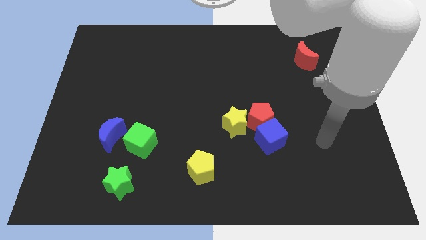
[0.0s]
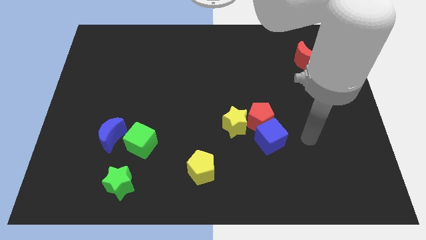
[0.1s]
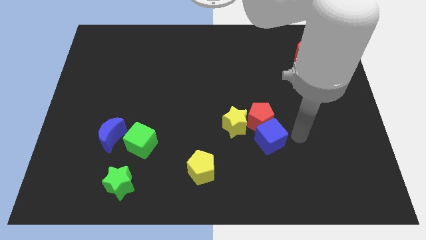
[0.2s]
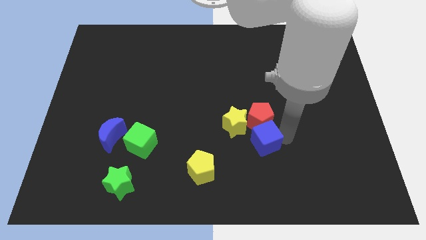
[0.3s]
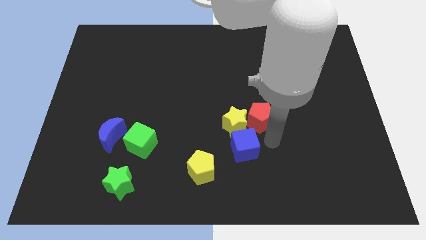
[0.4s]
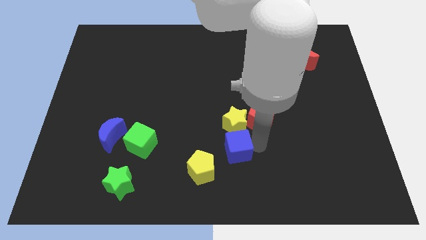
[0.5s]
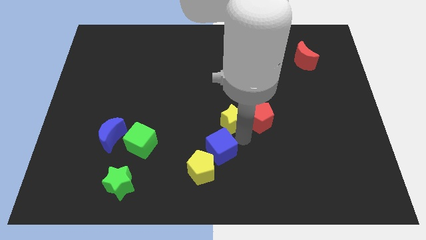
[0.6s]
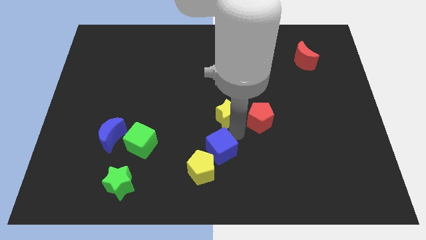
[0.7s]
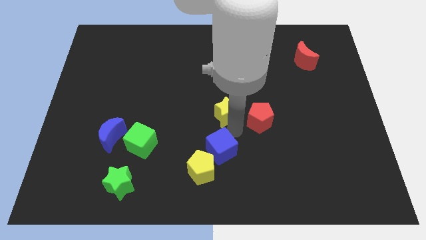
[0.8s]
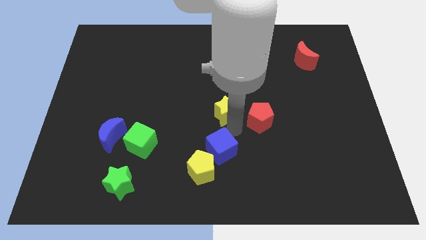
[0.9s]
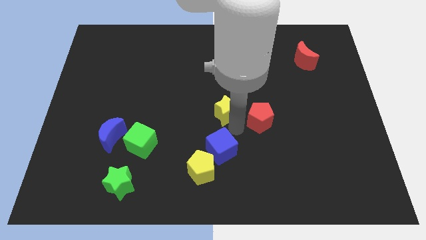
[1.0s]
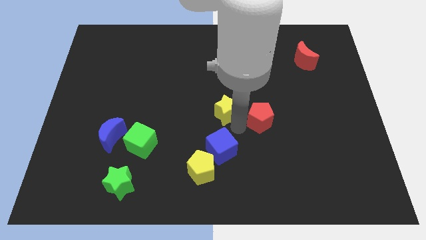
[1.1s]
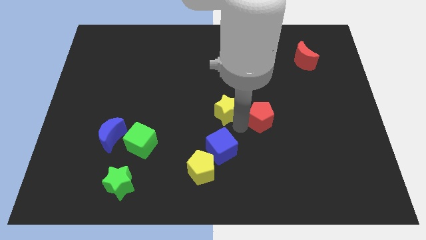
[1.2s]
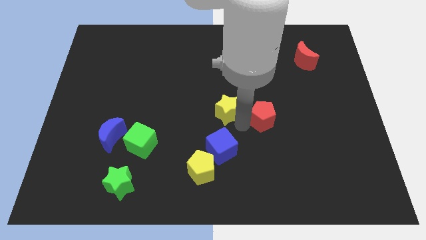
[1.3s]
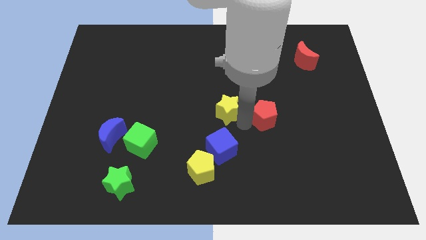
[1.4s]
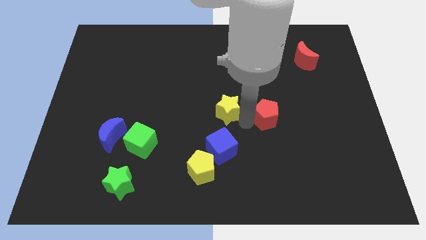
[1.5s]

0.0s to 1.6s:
pull the red pentagon apart from the blue cube and yellow star

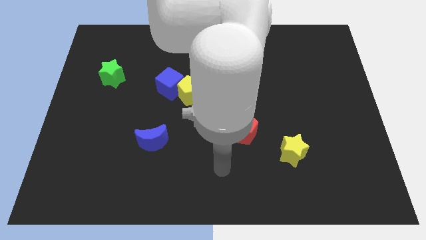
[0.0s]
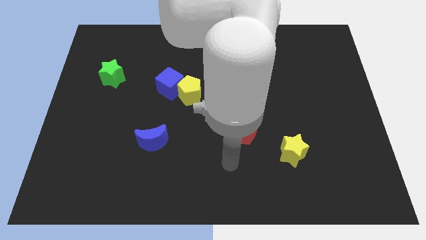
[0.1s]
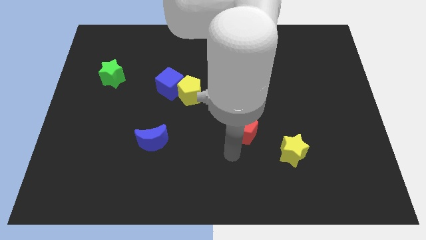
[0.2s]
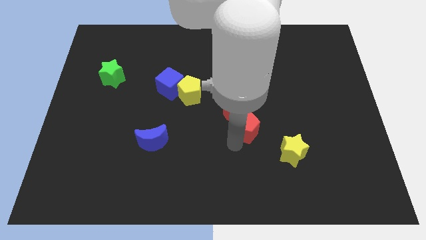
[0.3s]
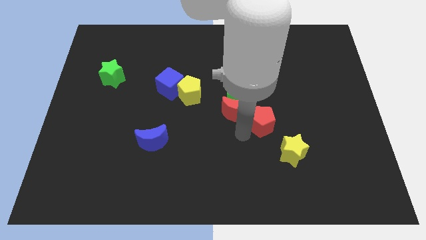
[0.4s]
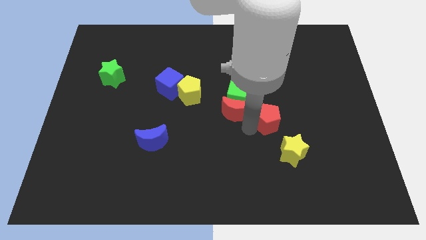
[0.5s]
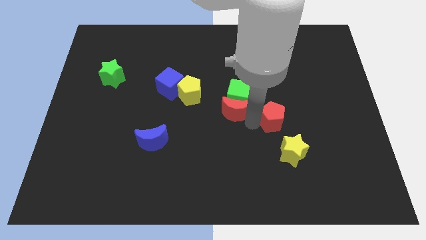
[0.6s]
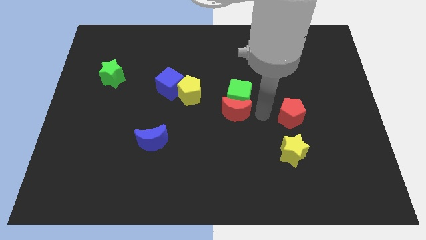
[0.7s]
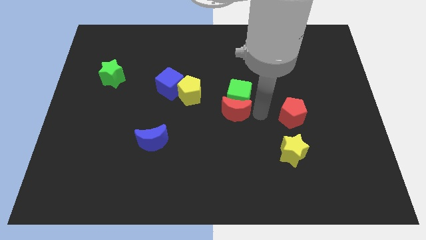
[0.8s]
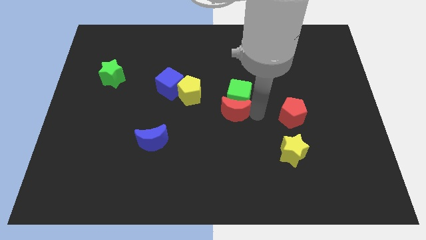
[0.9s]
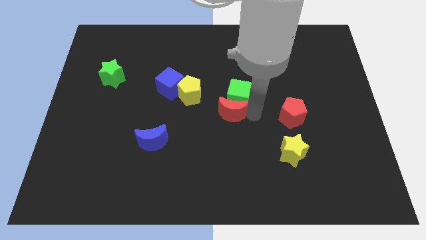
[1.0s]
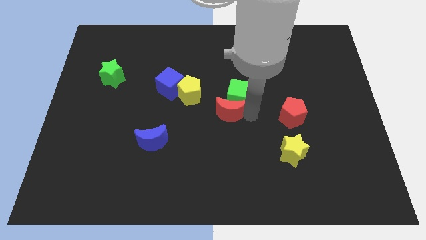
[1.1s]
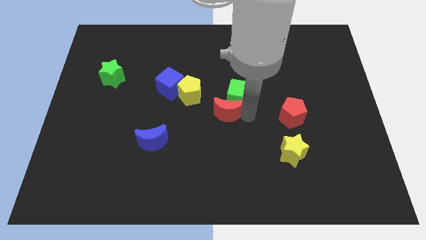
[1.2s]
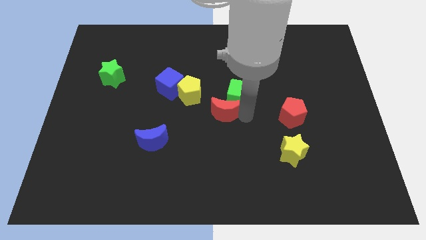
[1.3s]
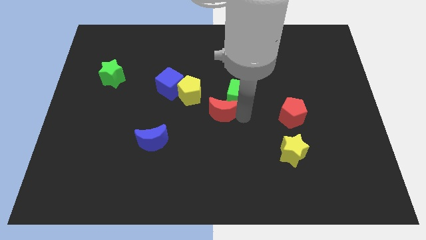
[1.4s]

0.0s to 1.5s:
move the red moon away from the green cube and red pentagon

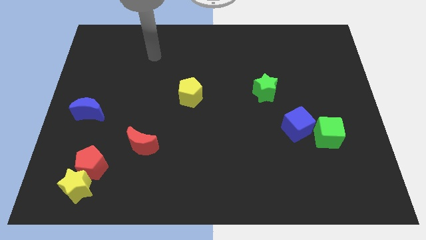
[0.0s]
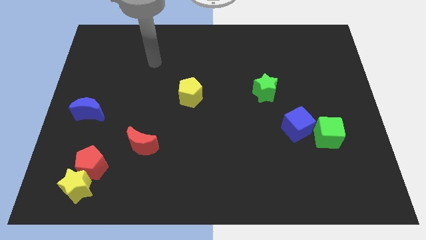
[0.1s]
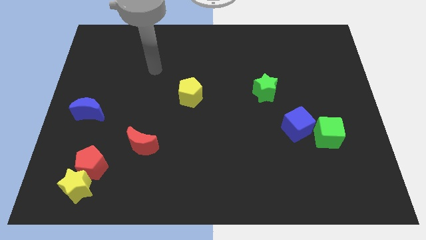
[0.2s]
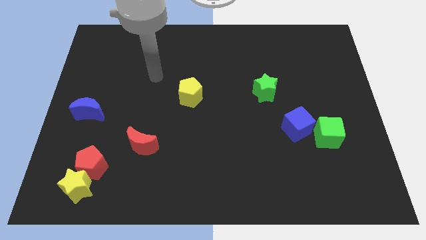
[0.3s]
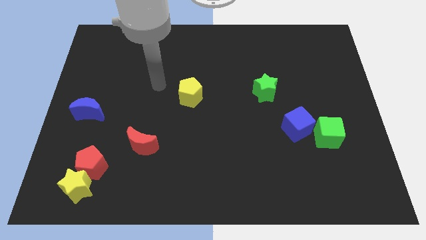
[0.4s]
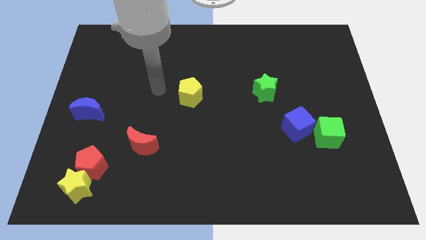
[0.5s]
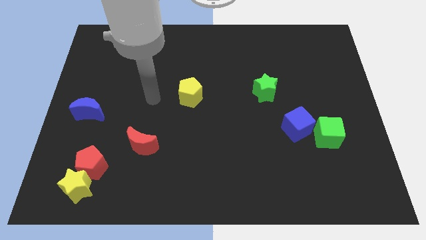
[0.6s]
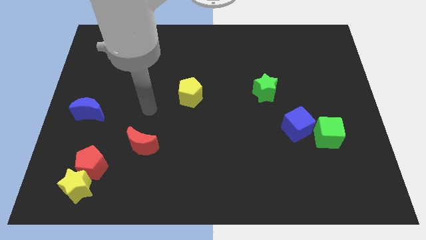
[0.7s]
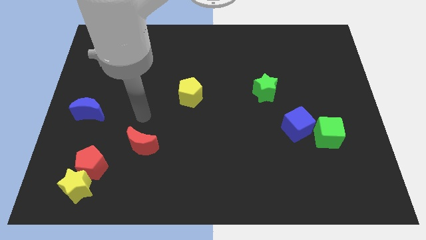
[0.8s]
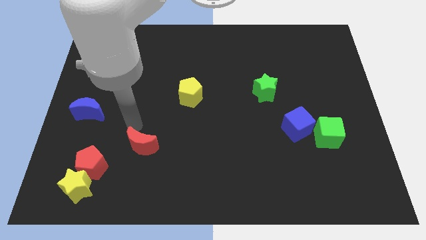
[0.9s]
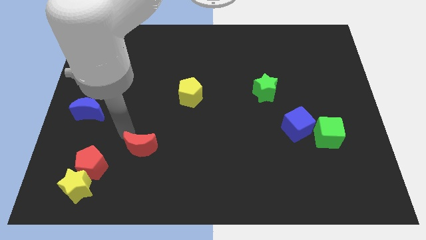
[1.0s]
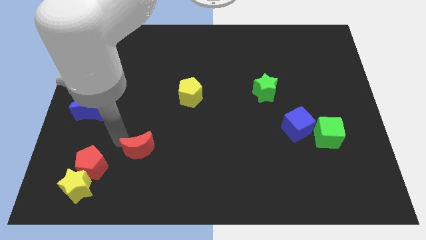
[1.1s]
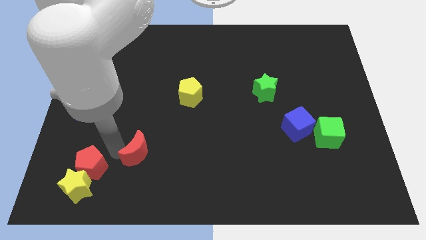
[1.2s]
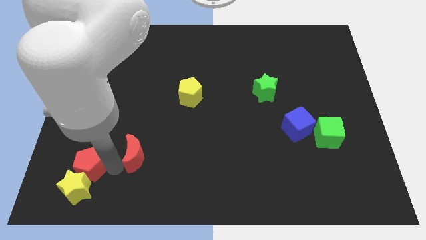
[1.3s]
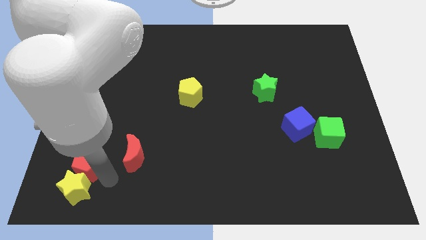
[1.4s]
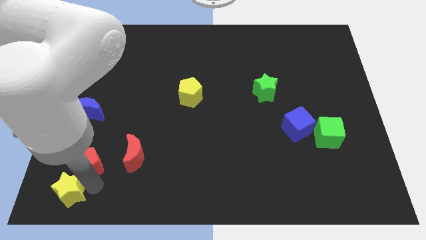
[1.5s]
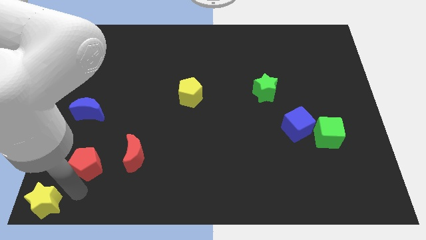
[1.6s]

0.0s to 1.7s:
pull the red pentagon apart from the yellow star

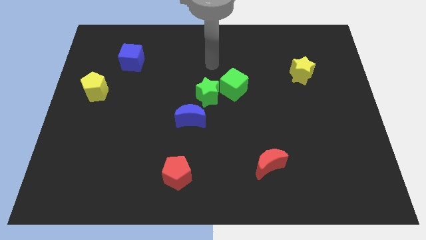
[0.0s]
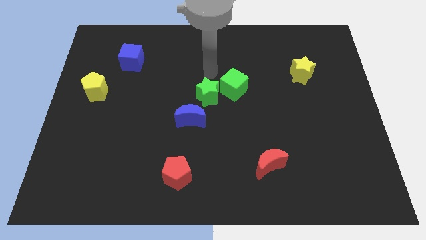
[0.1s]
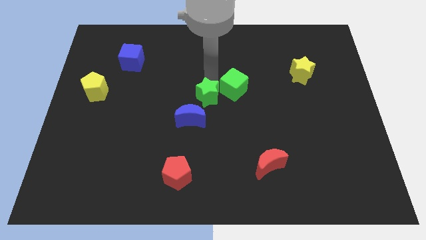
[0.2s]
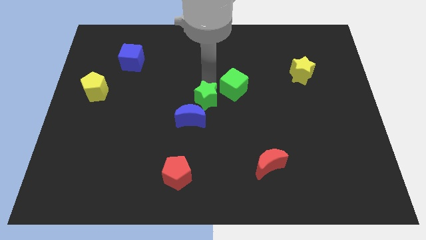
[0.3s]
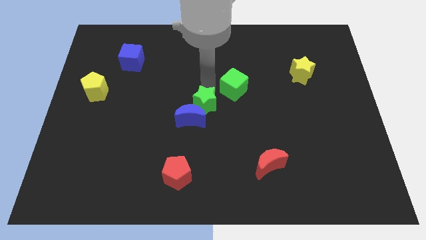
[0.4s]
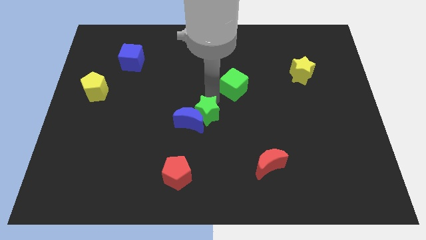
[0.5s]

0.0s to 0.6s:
move the green cube away from the green star

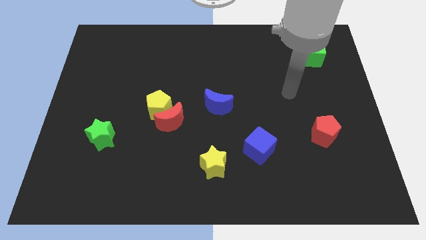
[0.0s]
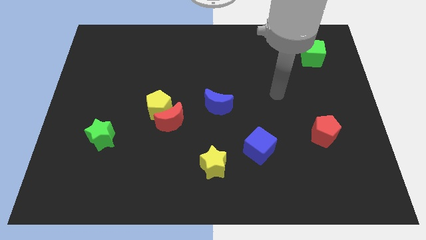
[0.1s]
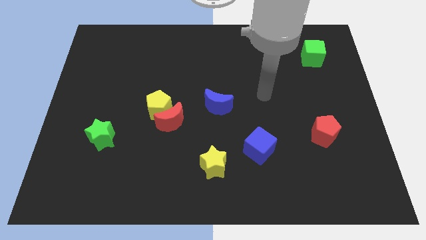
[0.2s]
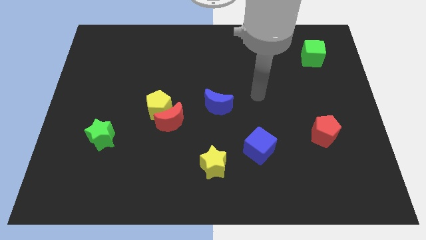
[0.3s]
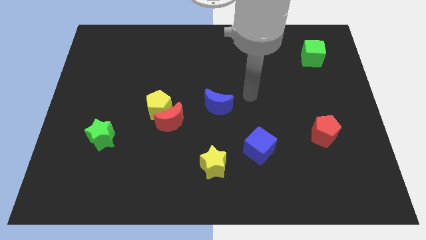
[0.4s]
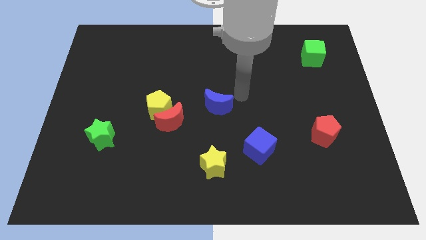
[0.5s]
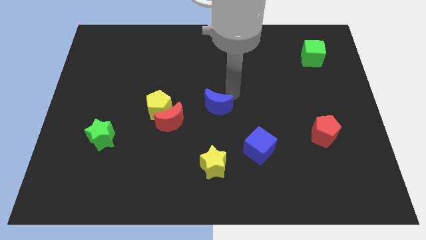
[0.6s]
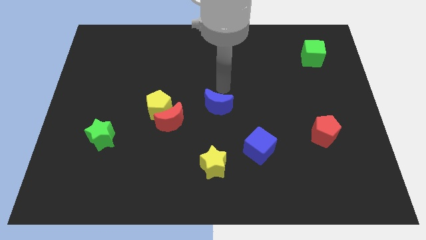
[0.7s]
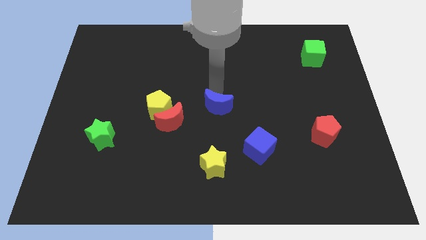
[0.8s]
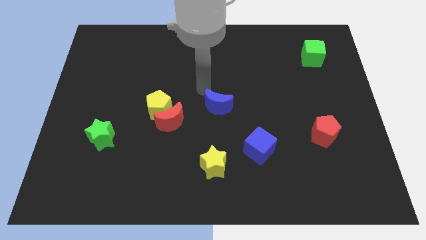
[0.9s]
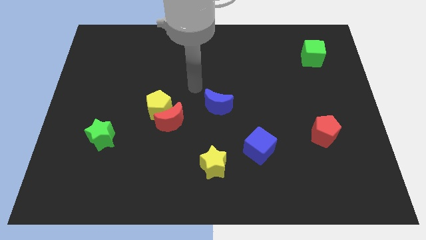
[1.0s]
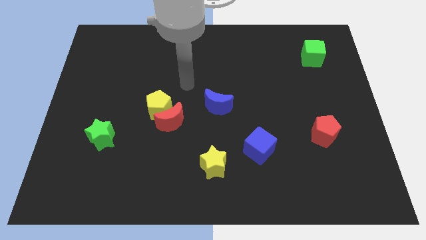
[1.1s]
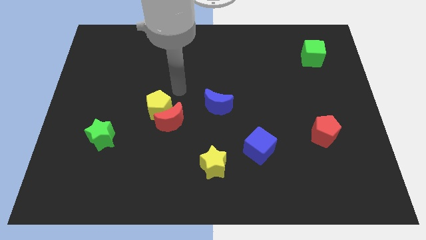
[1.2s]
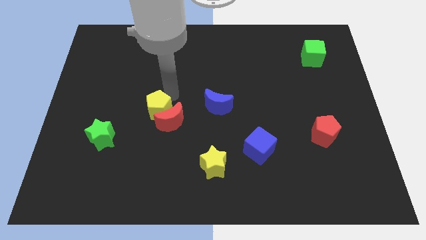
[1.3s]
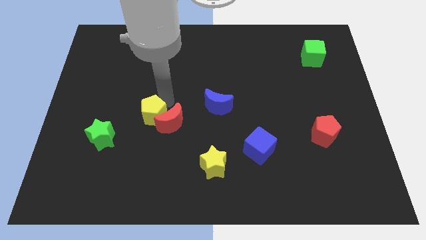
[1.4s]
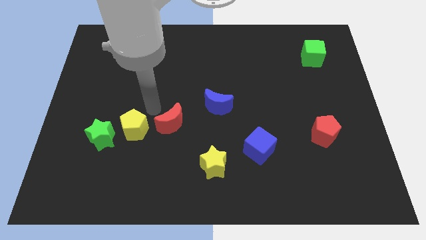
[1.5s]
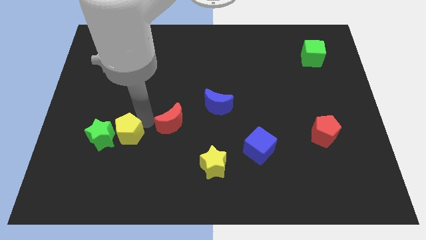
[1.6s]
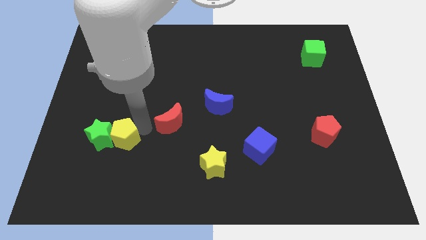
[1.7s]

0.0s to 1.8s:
move the red moon away from the yellow pentagon

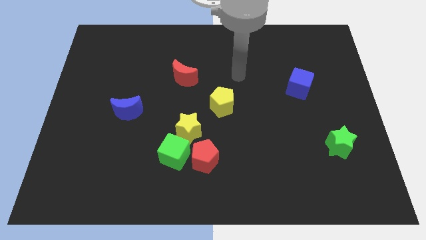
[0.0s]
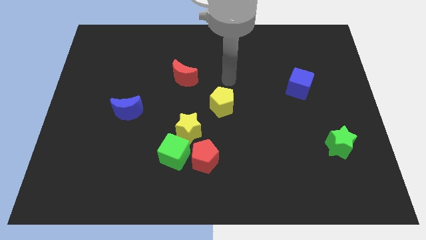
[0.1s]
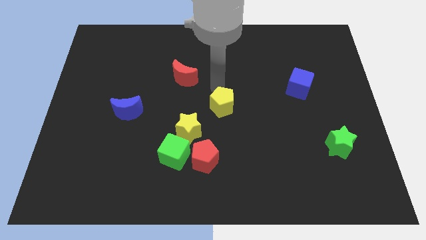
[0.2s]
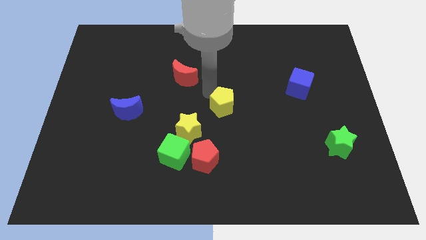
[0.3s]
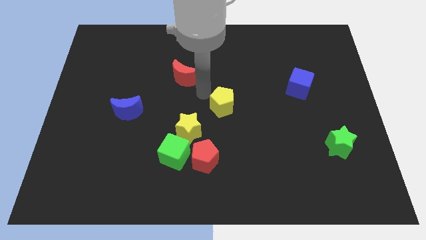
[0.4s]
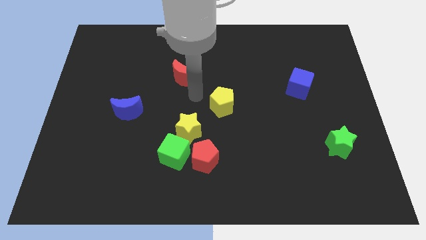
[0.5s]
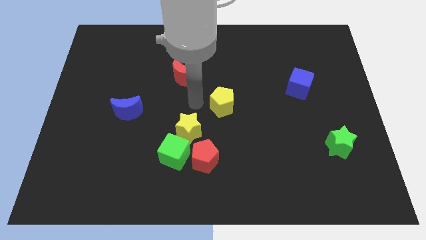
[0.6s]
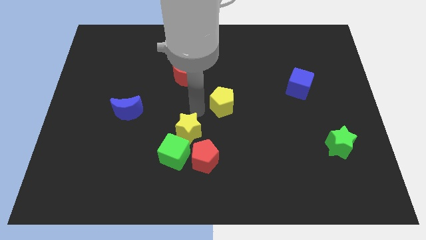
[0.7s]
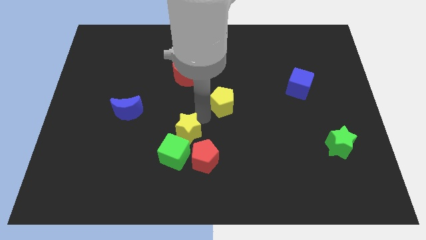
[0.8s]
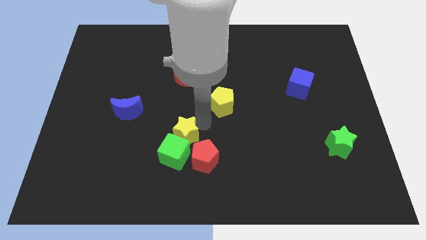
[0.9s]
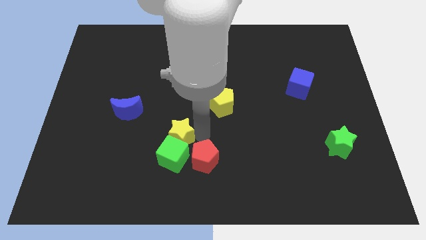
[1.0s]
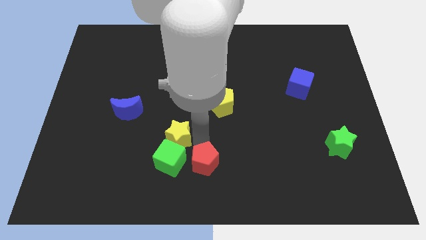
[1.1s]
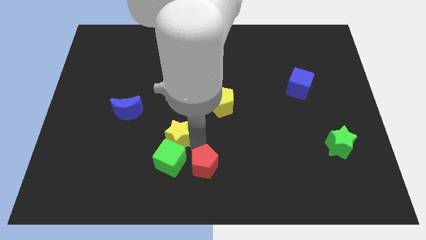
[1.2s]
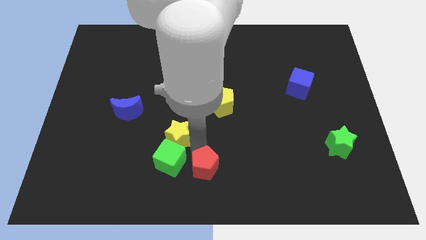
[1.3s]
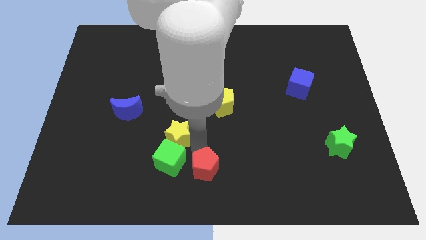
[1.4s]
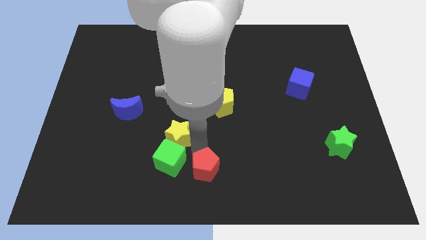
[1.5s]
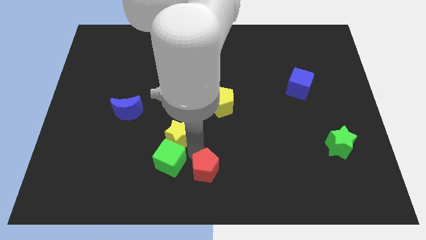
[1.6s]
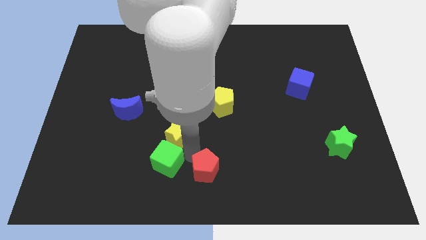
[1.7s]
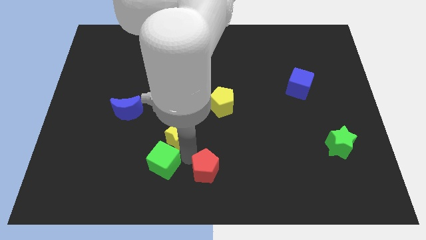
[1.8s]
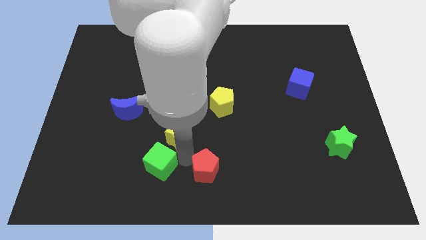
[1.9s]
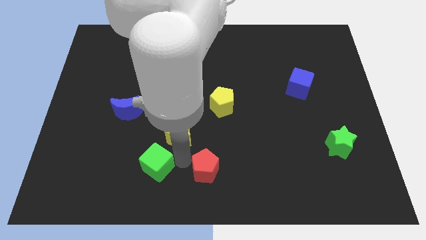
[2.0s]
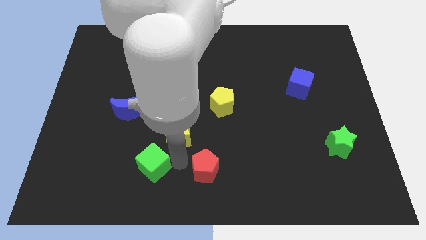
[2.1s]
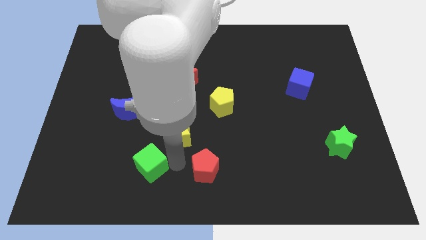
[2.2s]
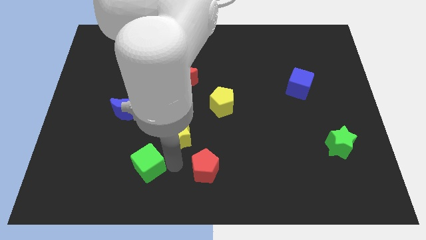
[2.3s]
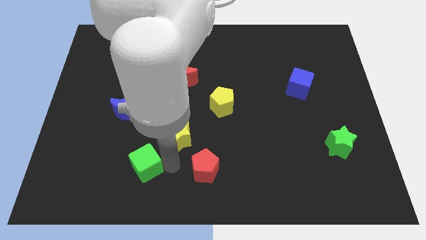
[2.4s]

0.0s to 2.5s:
move the green cube away from the red pentagon and yellow star
